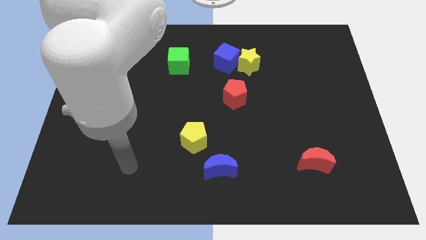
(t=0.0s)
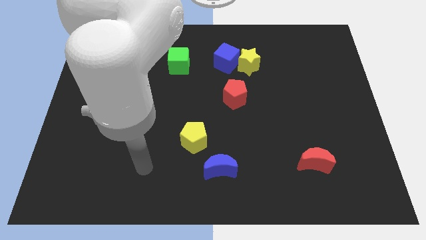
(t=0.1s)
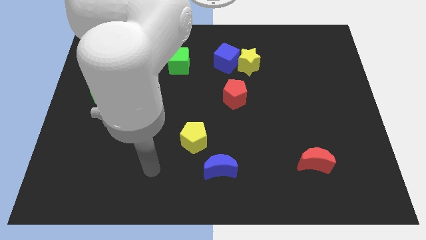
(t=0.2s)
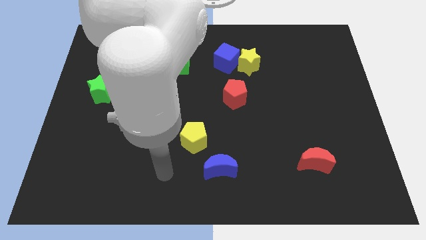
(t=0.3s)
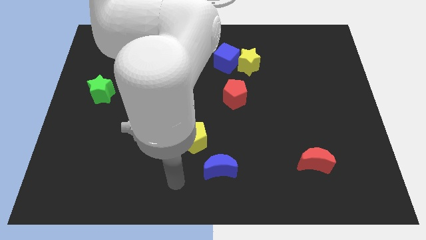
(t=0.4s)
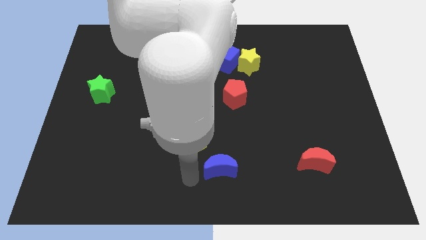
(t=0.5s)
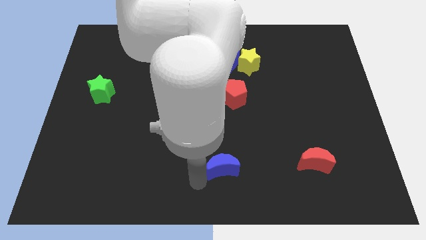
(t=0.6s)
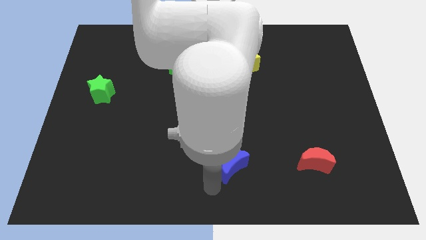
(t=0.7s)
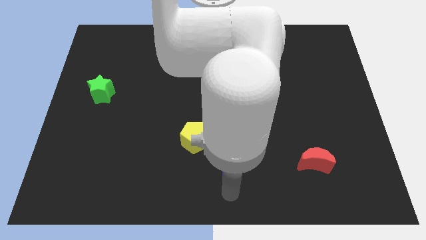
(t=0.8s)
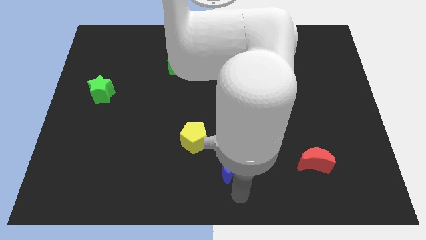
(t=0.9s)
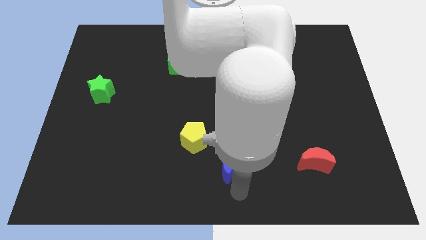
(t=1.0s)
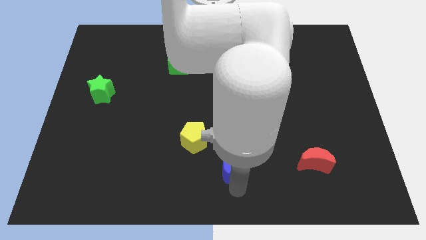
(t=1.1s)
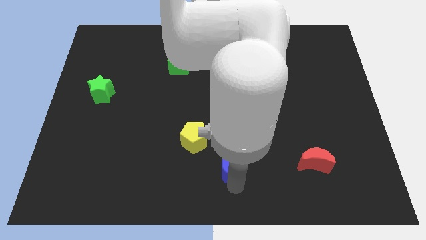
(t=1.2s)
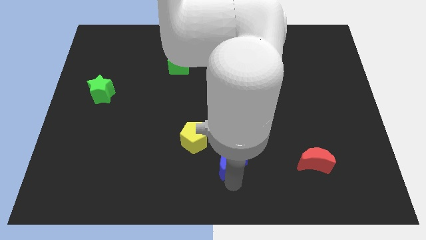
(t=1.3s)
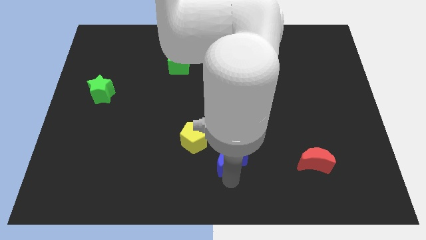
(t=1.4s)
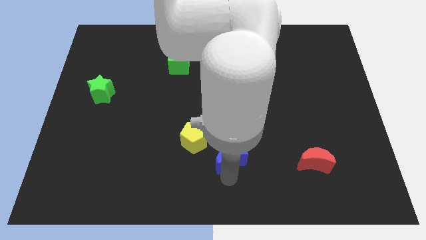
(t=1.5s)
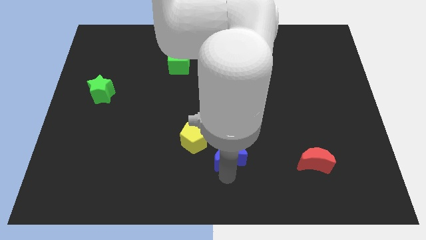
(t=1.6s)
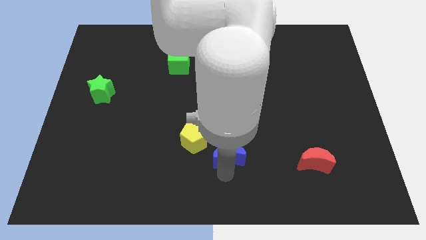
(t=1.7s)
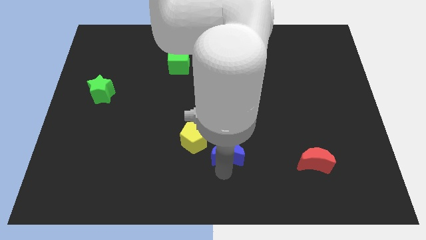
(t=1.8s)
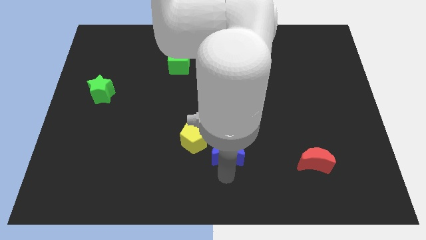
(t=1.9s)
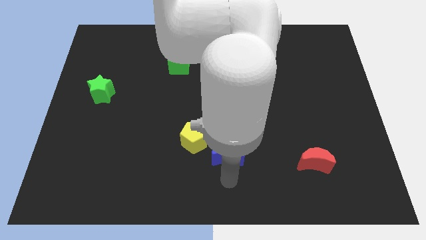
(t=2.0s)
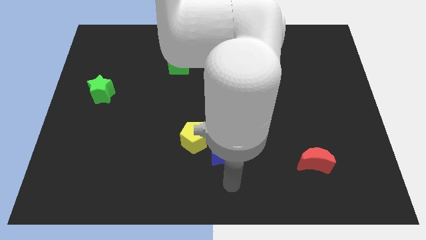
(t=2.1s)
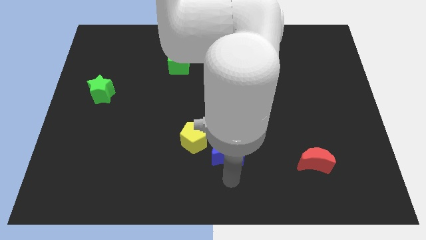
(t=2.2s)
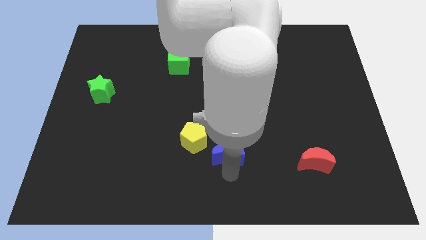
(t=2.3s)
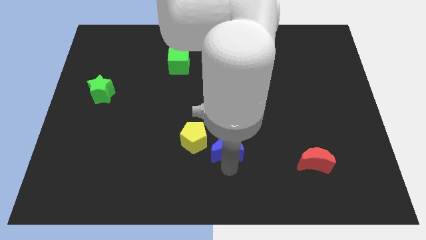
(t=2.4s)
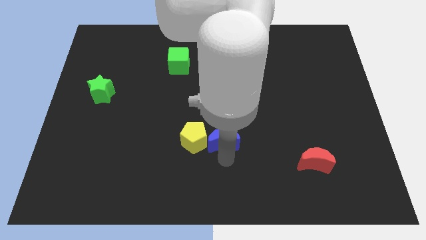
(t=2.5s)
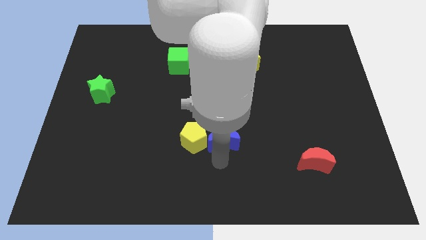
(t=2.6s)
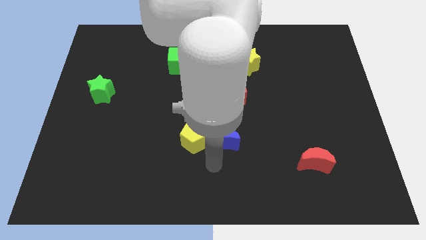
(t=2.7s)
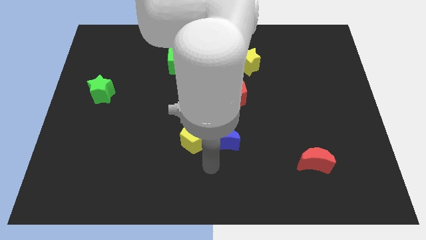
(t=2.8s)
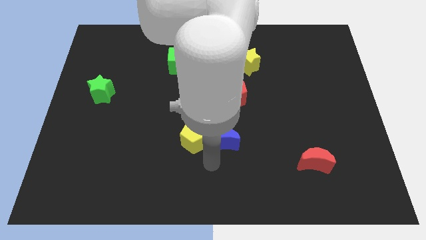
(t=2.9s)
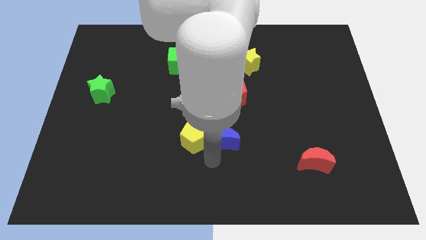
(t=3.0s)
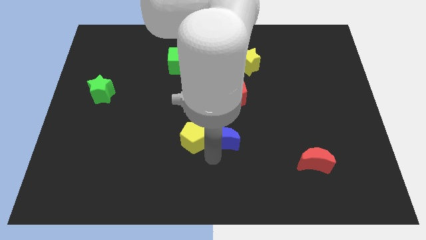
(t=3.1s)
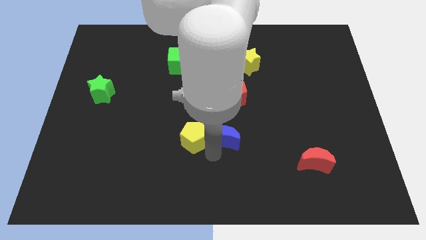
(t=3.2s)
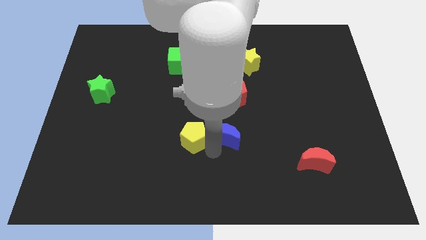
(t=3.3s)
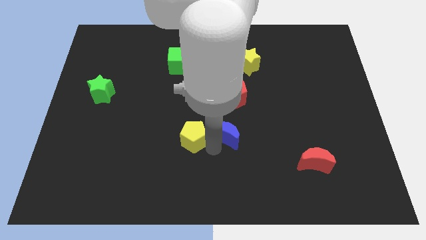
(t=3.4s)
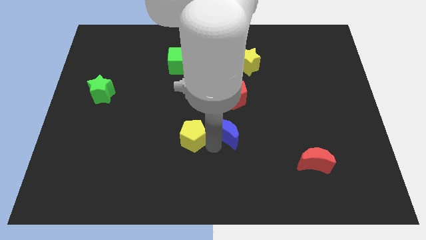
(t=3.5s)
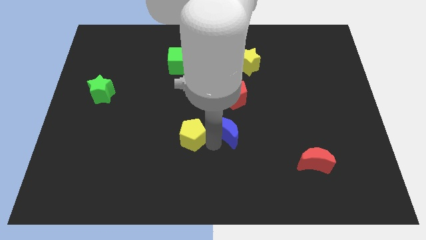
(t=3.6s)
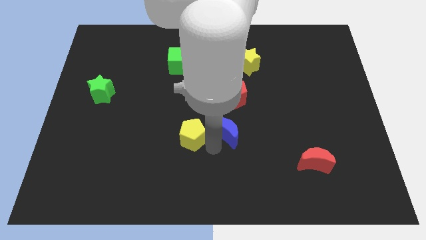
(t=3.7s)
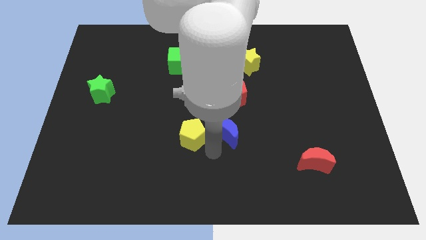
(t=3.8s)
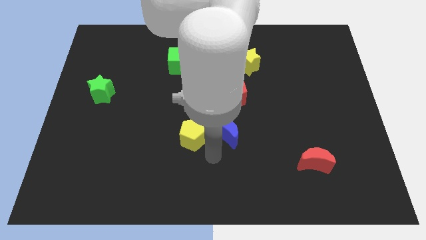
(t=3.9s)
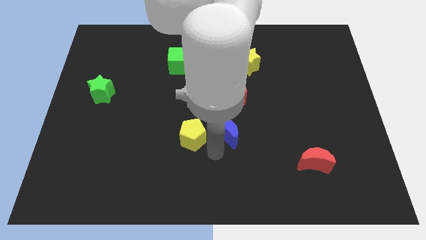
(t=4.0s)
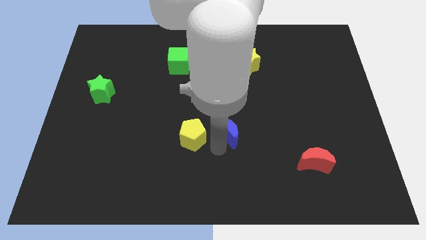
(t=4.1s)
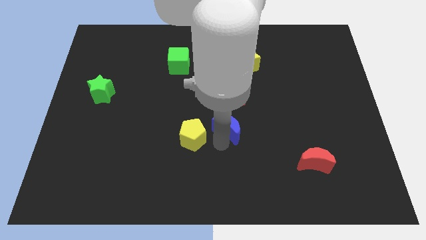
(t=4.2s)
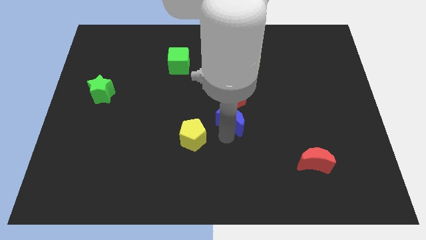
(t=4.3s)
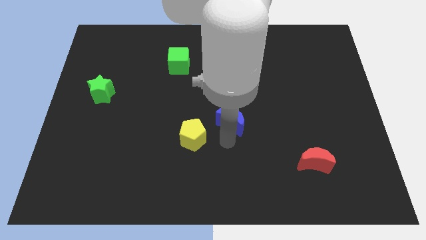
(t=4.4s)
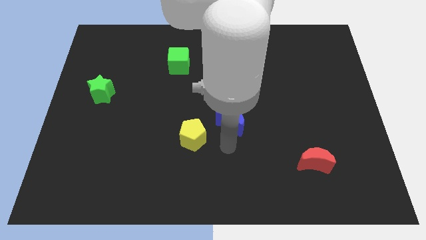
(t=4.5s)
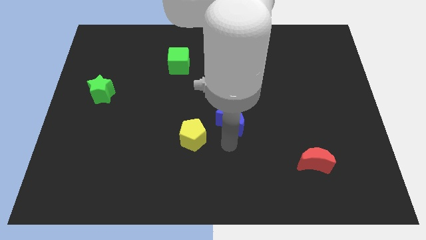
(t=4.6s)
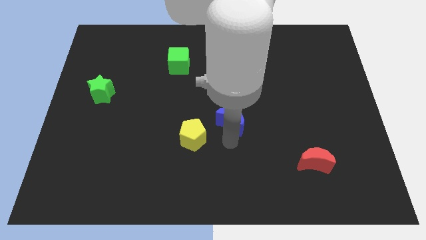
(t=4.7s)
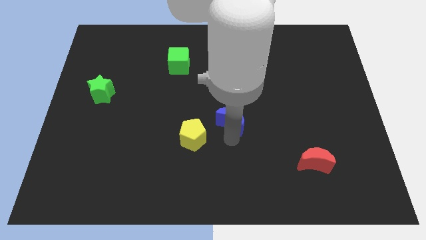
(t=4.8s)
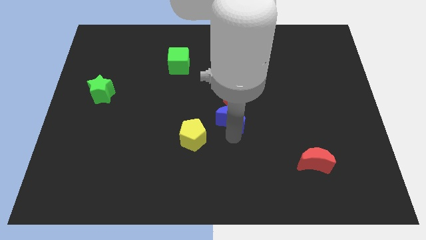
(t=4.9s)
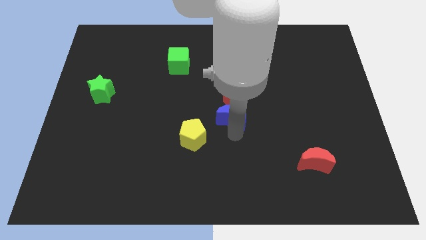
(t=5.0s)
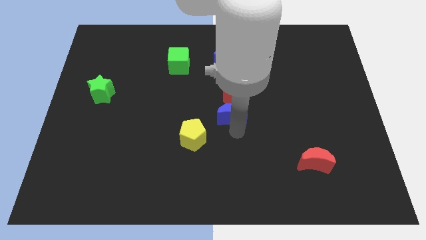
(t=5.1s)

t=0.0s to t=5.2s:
slide the blue moon close to the red pentagon

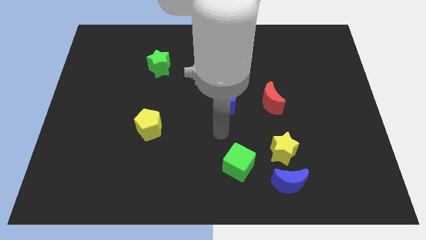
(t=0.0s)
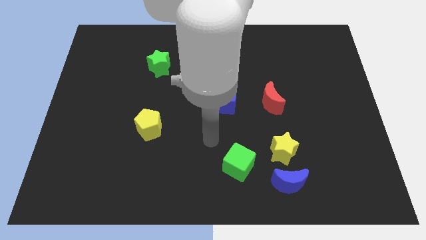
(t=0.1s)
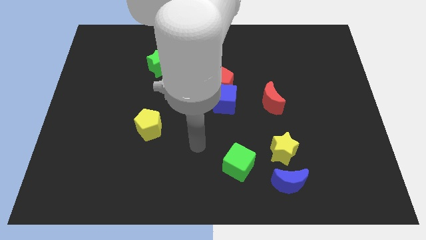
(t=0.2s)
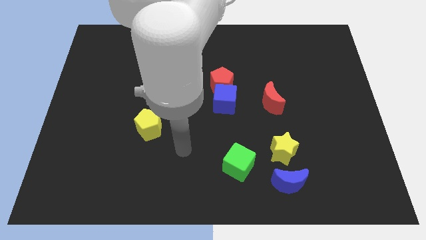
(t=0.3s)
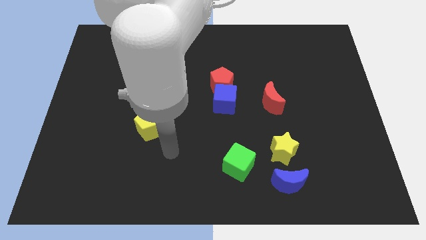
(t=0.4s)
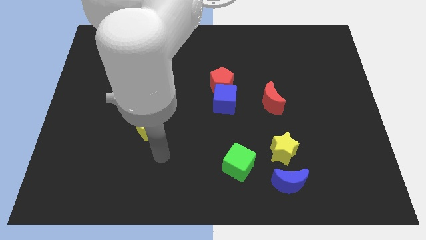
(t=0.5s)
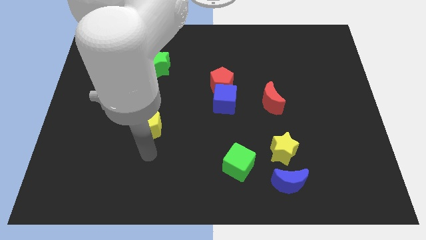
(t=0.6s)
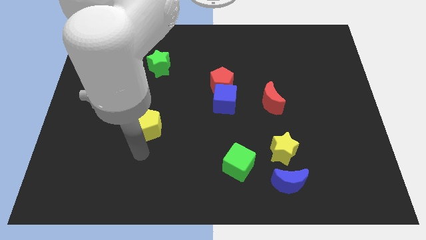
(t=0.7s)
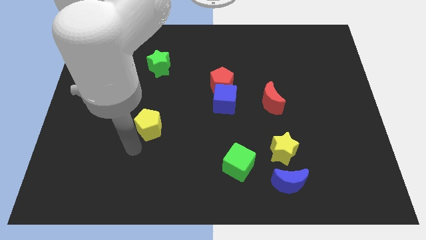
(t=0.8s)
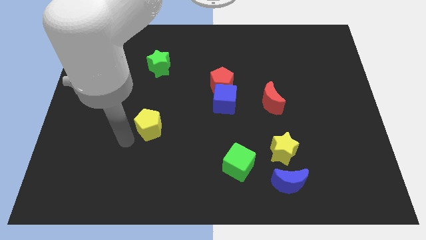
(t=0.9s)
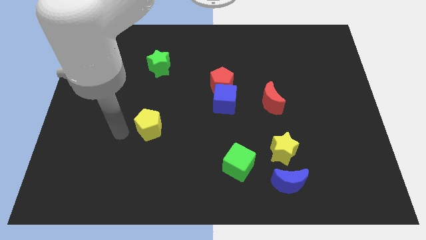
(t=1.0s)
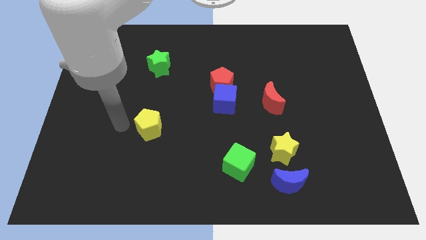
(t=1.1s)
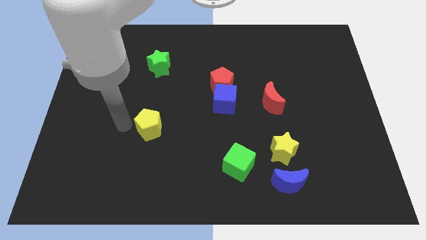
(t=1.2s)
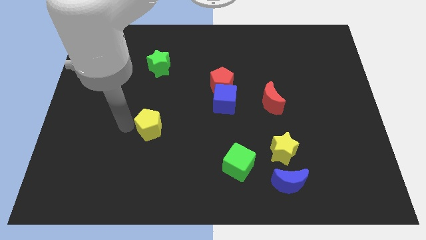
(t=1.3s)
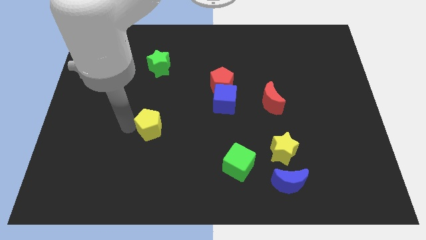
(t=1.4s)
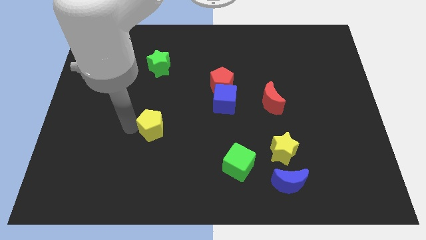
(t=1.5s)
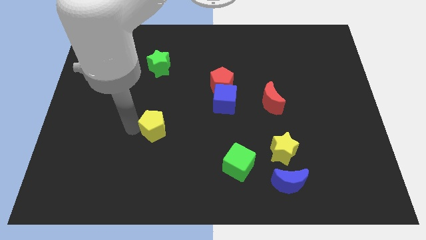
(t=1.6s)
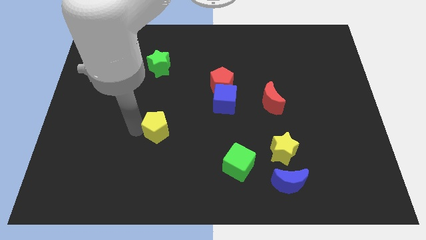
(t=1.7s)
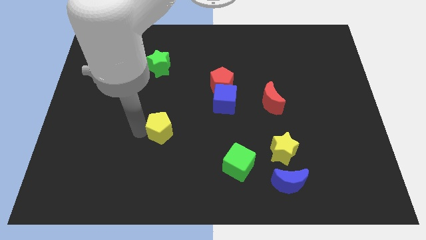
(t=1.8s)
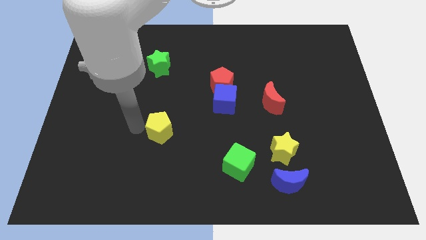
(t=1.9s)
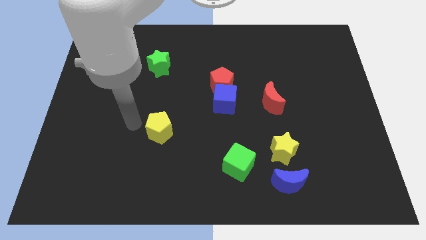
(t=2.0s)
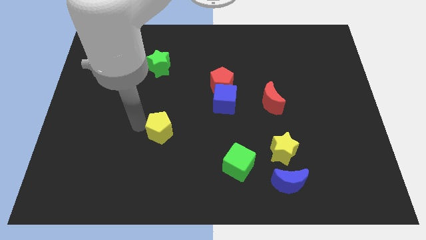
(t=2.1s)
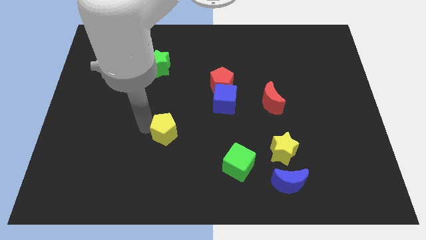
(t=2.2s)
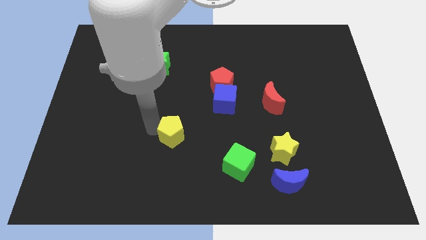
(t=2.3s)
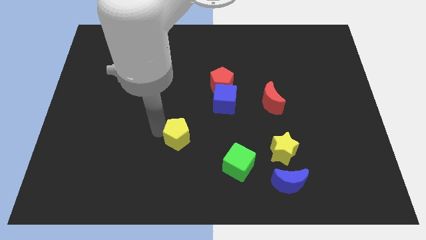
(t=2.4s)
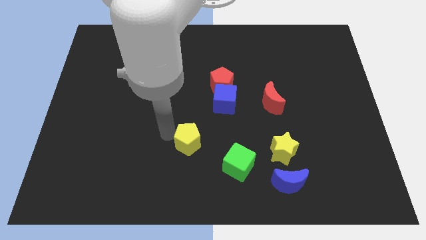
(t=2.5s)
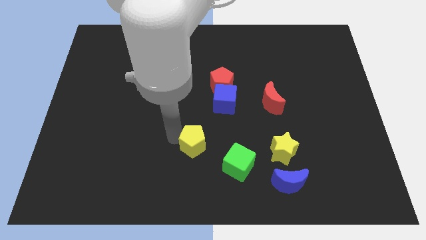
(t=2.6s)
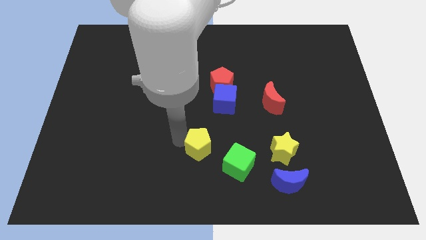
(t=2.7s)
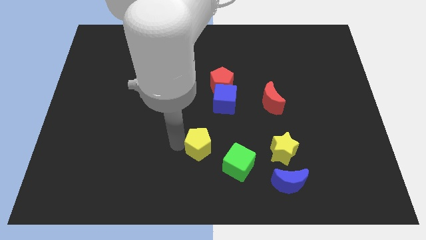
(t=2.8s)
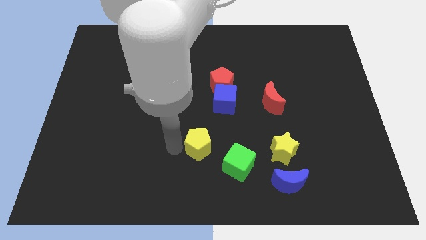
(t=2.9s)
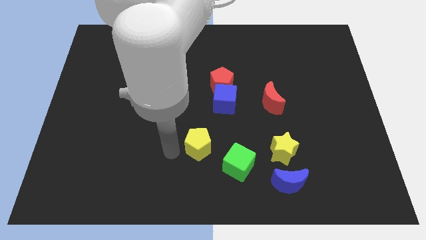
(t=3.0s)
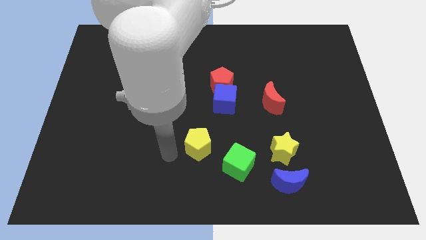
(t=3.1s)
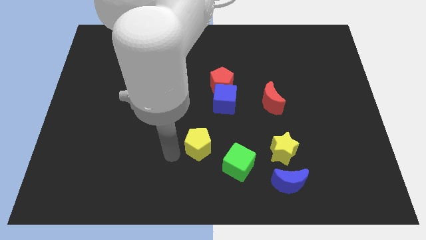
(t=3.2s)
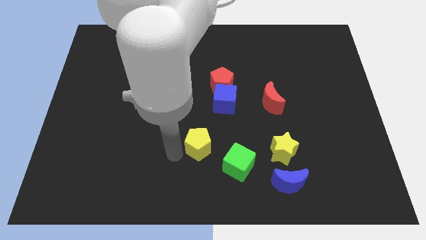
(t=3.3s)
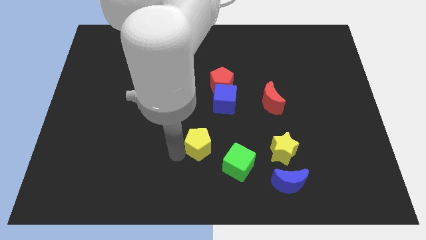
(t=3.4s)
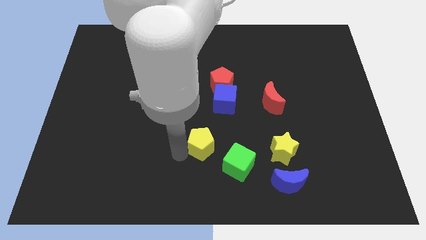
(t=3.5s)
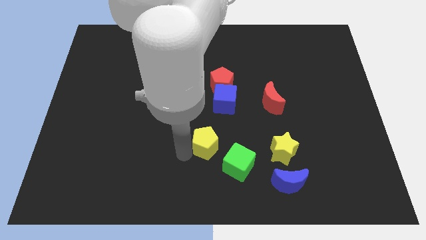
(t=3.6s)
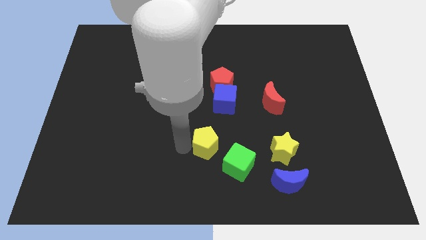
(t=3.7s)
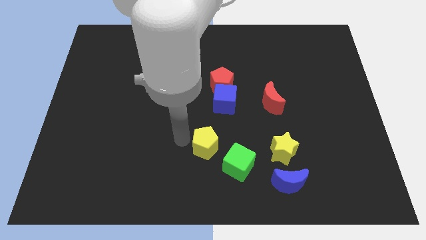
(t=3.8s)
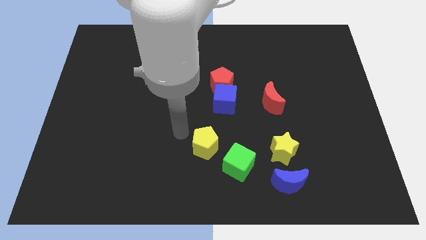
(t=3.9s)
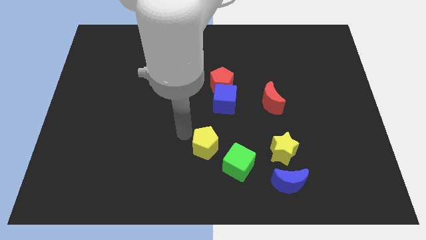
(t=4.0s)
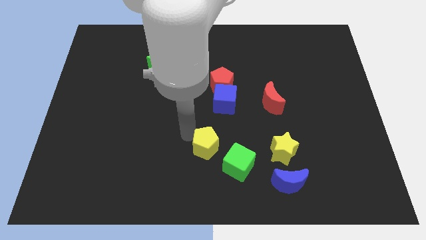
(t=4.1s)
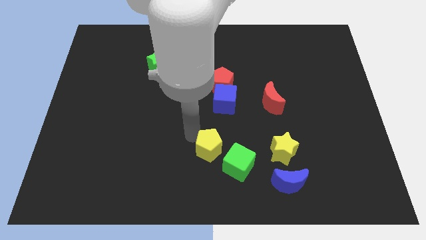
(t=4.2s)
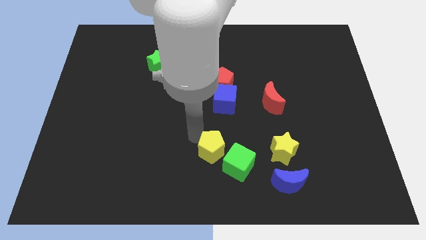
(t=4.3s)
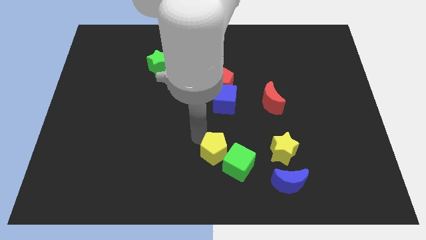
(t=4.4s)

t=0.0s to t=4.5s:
move the yellow pentagon towards the green cube
